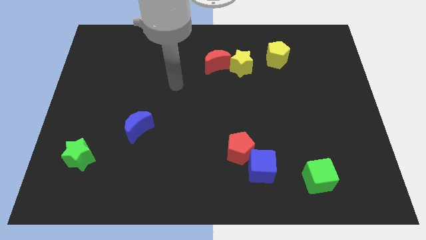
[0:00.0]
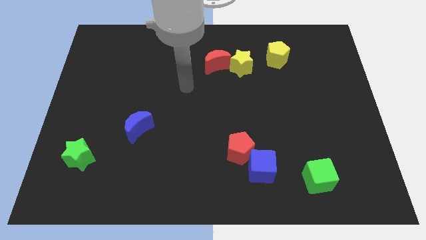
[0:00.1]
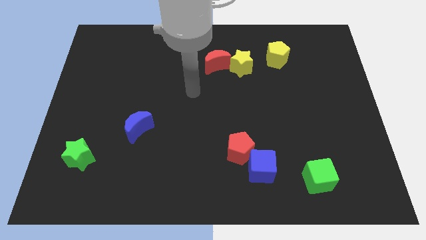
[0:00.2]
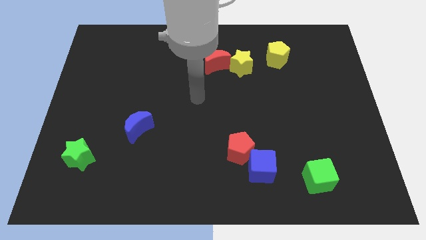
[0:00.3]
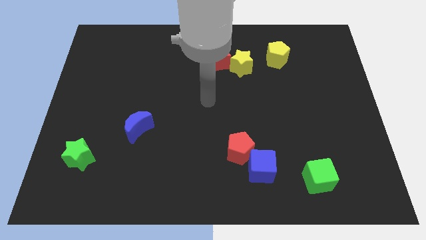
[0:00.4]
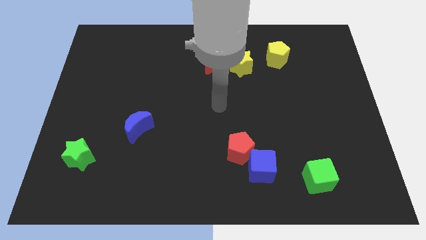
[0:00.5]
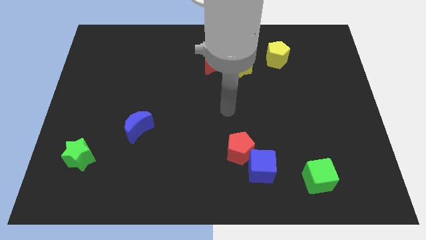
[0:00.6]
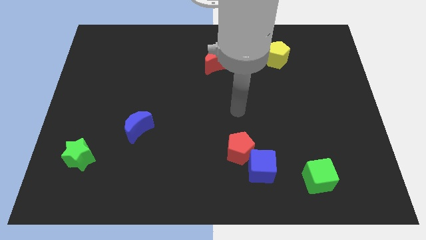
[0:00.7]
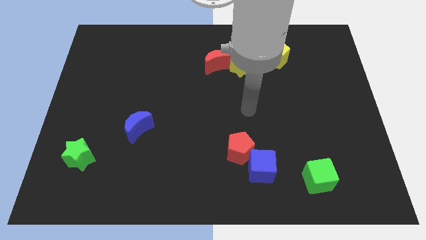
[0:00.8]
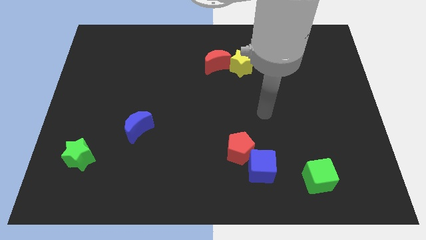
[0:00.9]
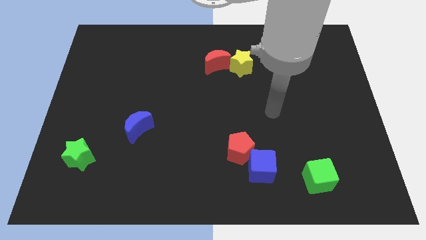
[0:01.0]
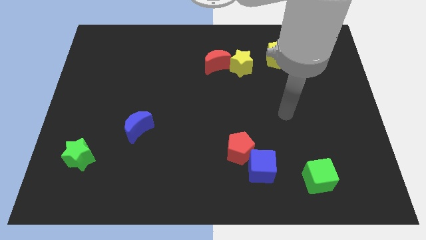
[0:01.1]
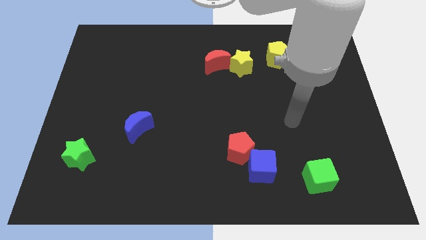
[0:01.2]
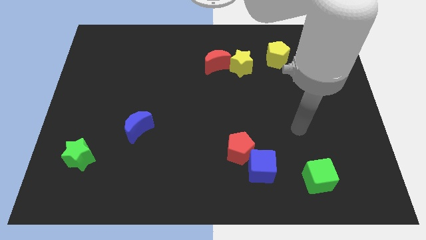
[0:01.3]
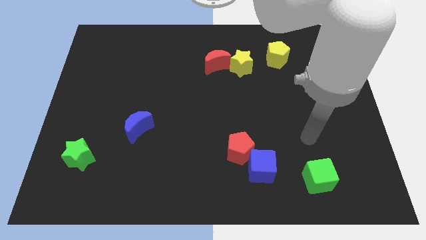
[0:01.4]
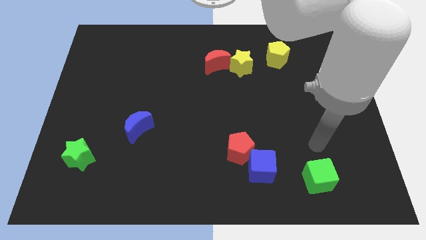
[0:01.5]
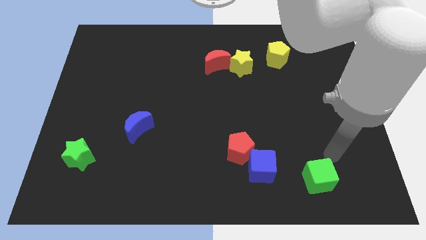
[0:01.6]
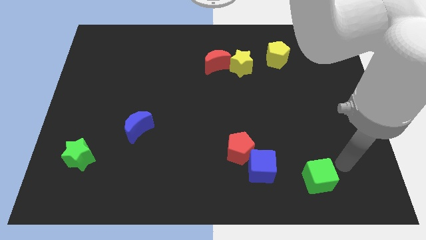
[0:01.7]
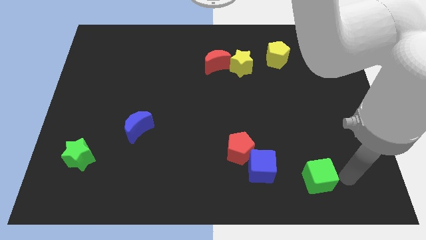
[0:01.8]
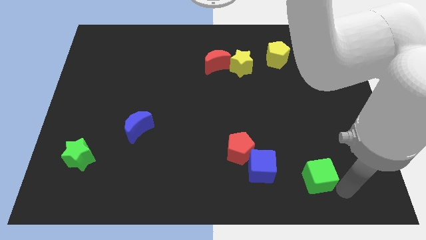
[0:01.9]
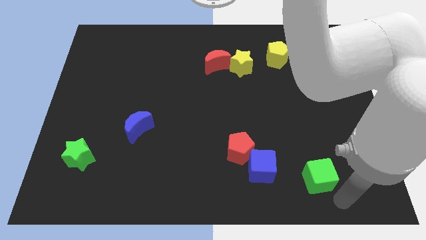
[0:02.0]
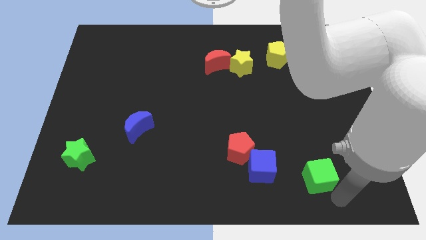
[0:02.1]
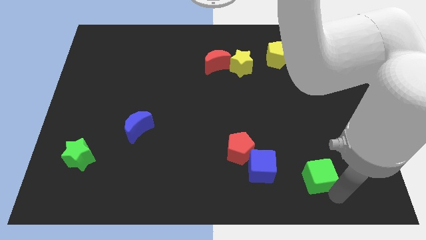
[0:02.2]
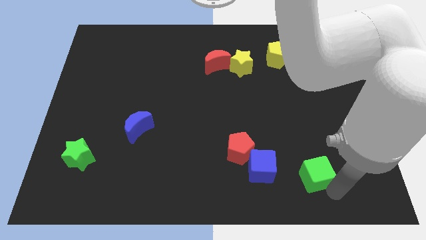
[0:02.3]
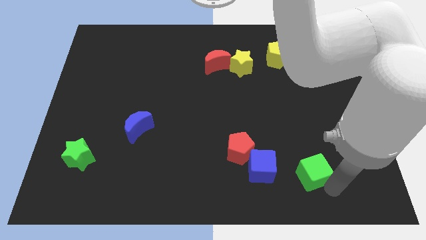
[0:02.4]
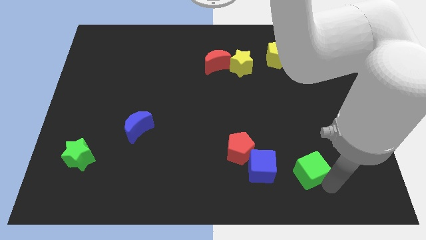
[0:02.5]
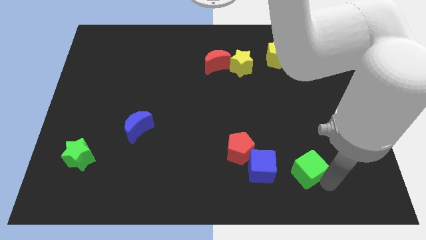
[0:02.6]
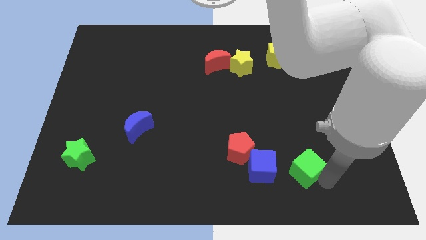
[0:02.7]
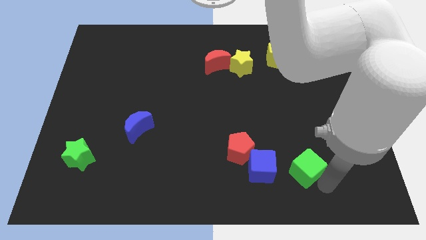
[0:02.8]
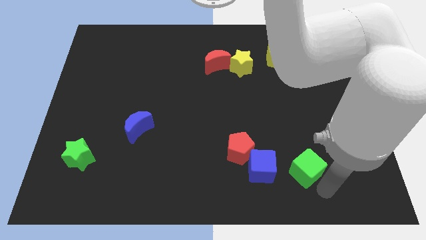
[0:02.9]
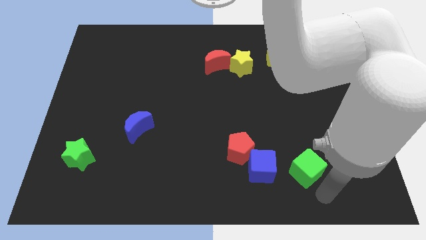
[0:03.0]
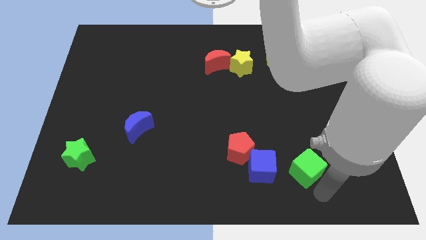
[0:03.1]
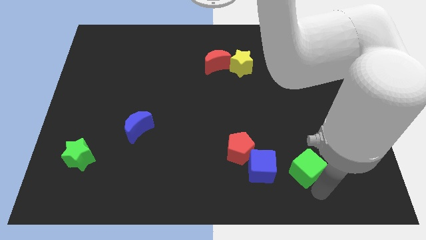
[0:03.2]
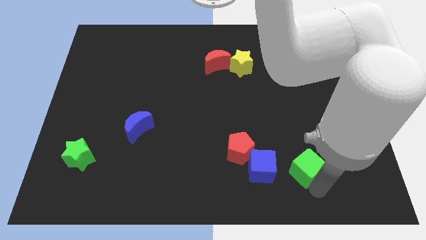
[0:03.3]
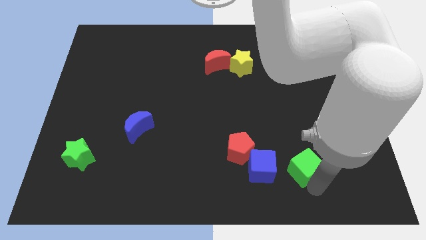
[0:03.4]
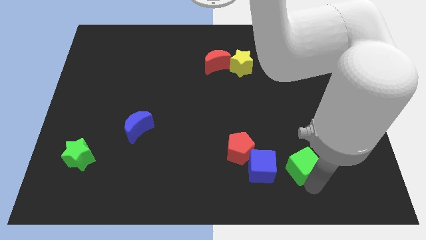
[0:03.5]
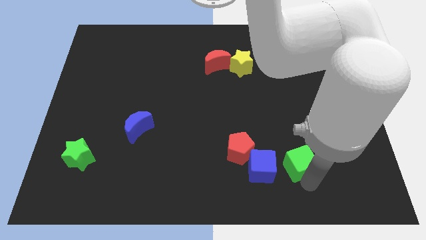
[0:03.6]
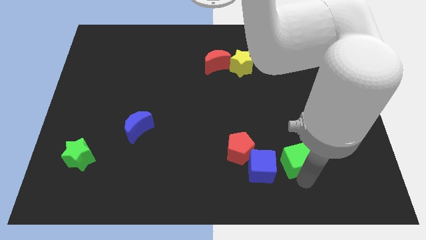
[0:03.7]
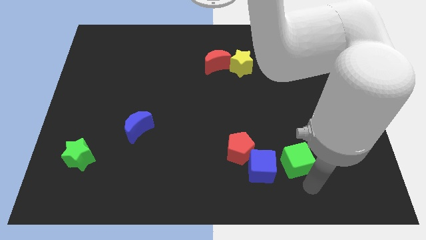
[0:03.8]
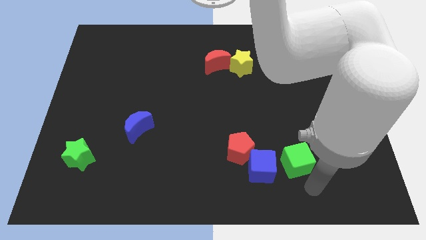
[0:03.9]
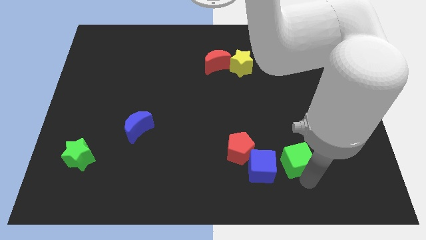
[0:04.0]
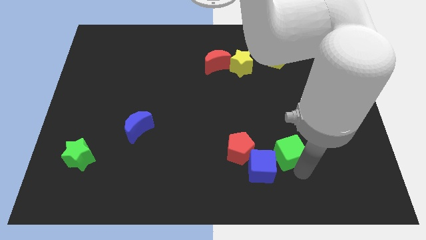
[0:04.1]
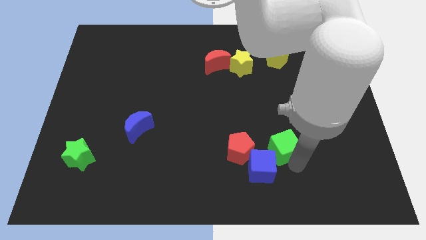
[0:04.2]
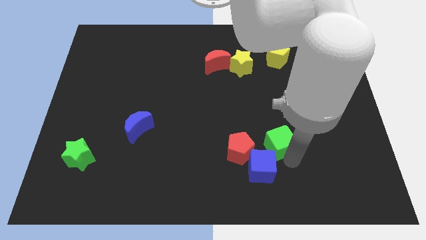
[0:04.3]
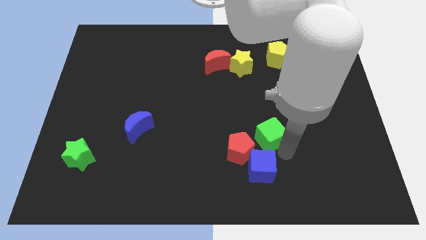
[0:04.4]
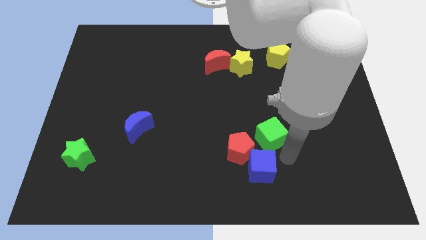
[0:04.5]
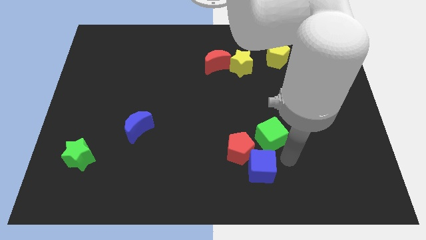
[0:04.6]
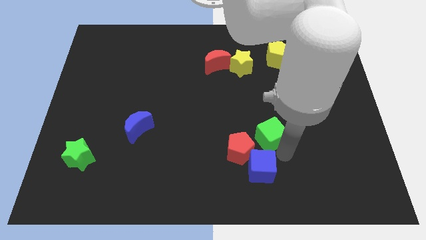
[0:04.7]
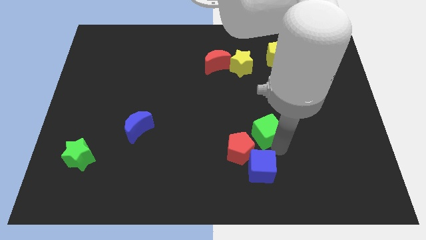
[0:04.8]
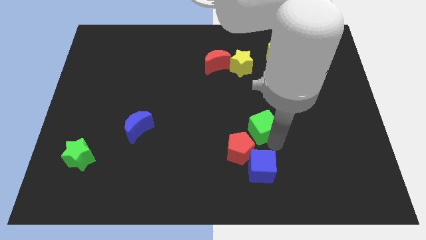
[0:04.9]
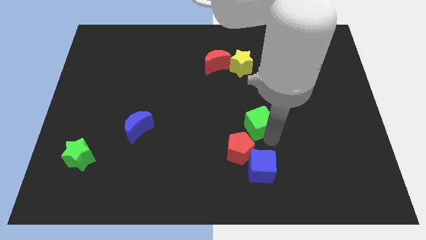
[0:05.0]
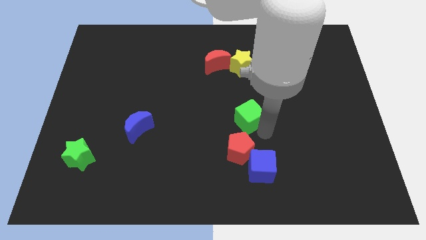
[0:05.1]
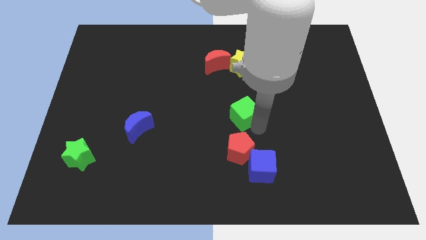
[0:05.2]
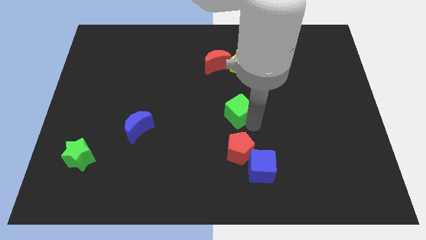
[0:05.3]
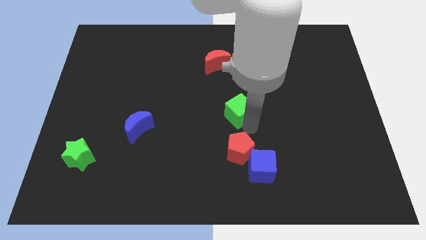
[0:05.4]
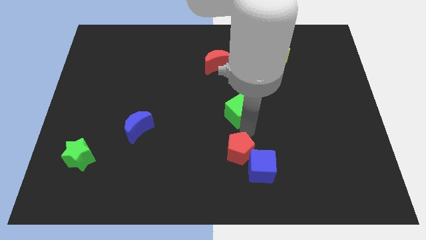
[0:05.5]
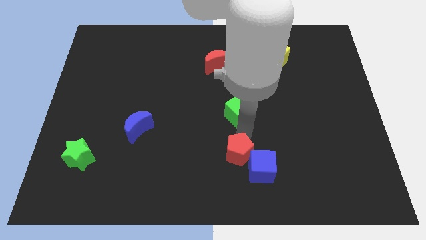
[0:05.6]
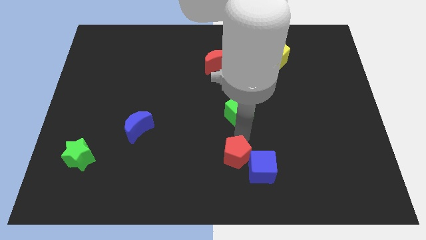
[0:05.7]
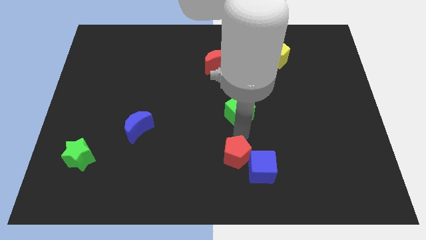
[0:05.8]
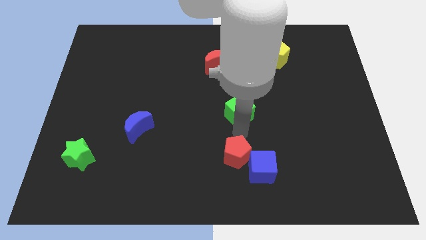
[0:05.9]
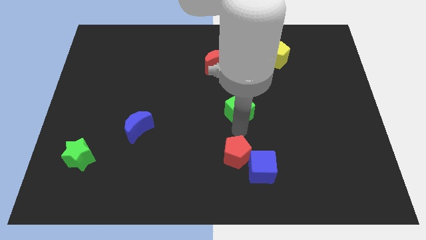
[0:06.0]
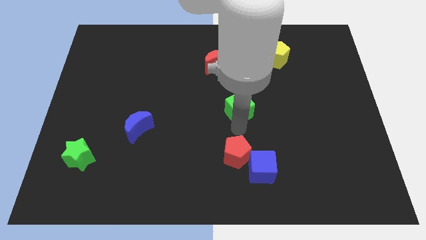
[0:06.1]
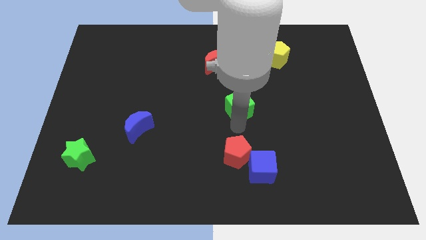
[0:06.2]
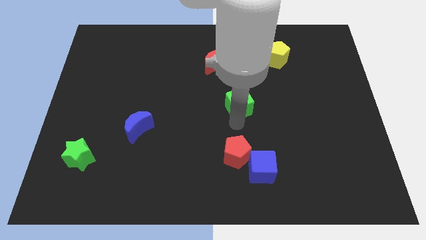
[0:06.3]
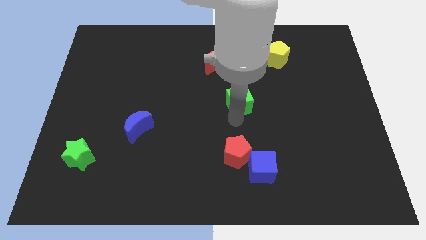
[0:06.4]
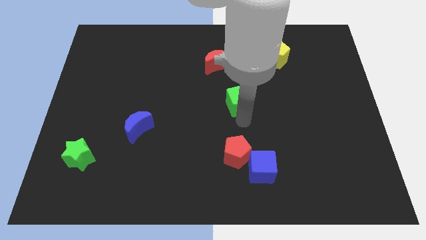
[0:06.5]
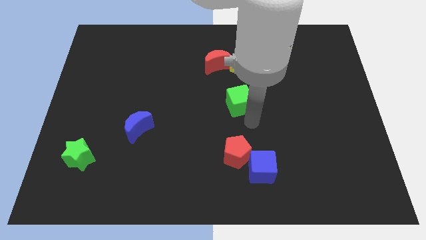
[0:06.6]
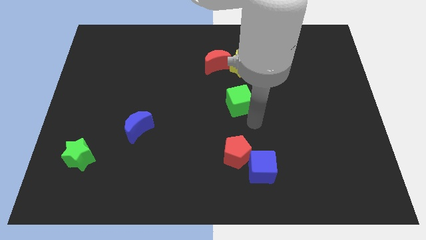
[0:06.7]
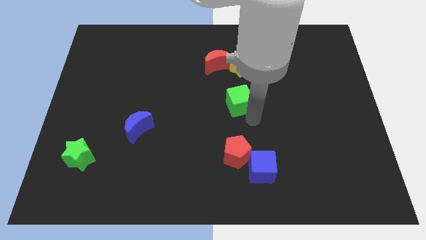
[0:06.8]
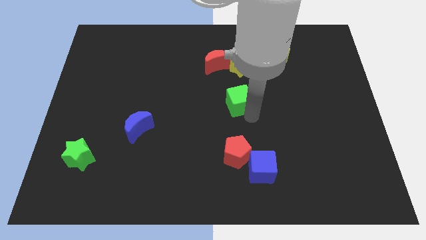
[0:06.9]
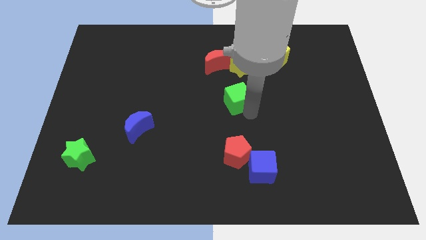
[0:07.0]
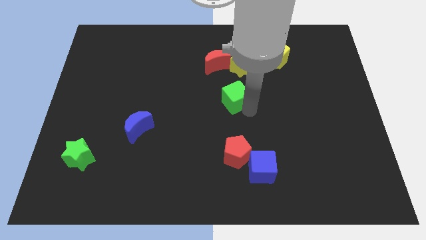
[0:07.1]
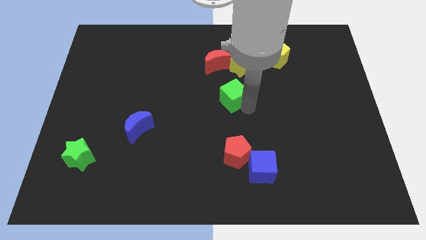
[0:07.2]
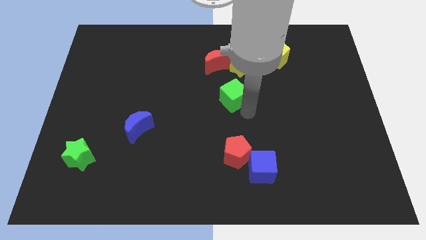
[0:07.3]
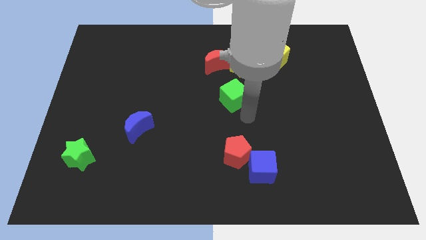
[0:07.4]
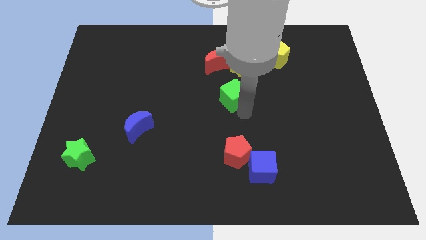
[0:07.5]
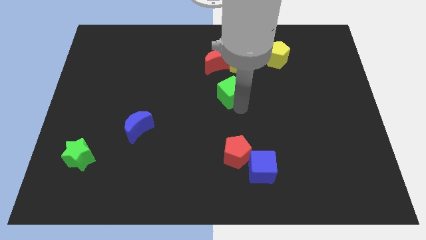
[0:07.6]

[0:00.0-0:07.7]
push the green cube diagonally down and to the left of the yellow star
